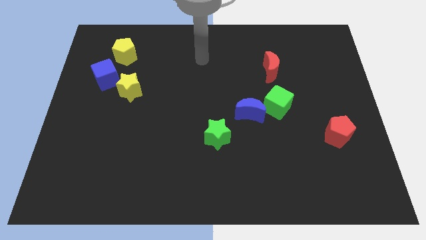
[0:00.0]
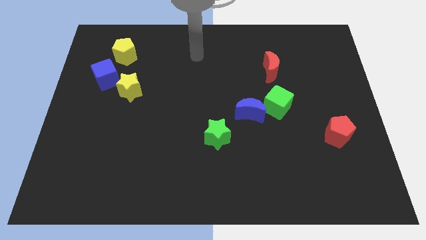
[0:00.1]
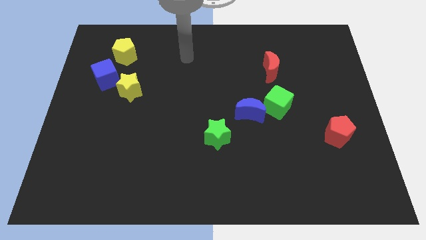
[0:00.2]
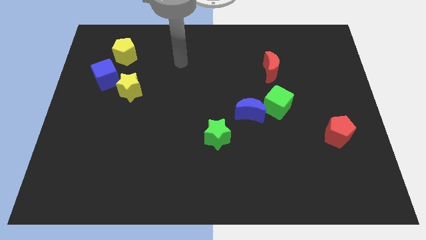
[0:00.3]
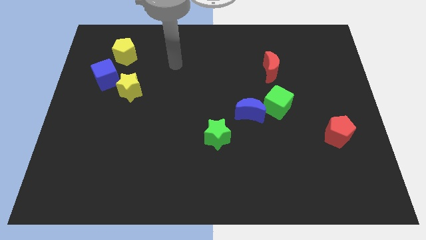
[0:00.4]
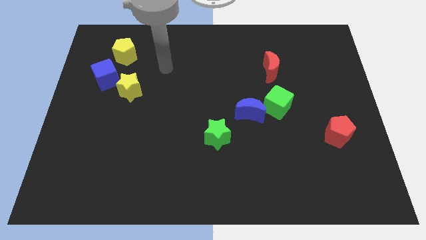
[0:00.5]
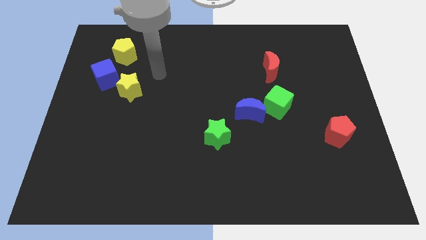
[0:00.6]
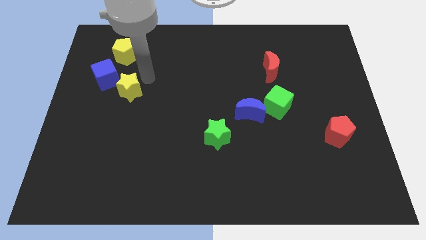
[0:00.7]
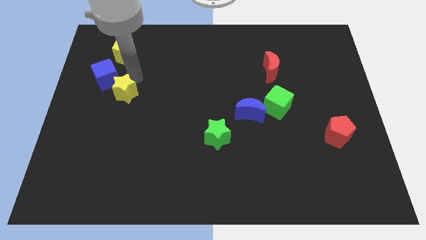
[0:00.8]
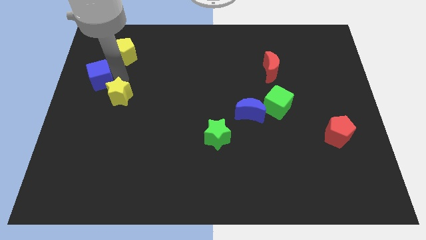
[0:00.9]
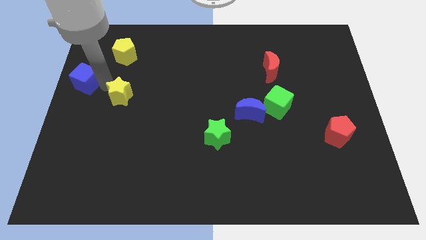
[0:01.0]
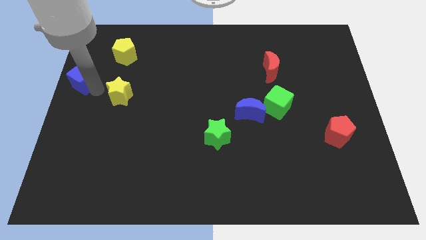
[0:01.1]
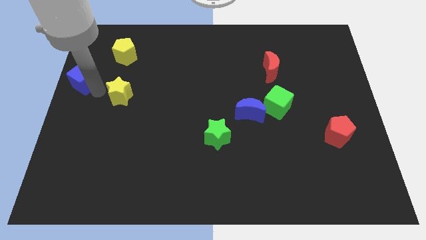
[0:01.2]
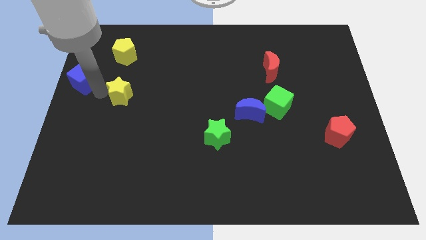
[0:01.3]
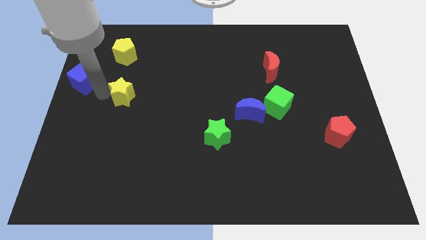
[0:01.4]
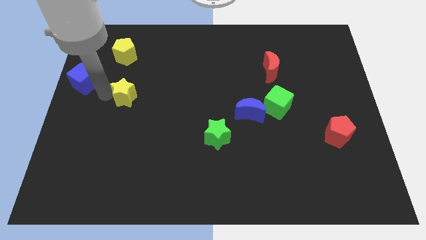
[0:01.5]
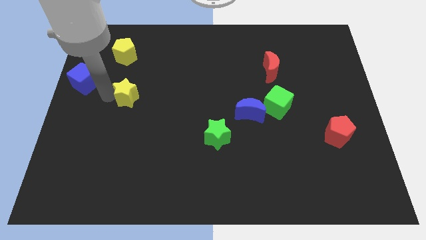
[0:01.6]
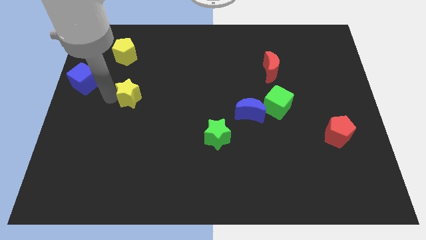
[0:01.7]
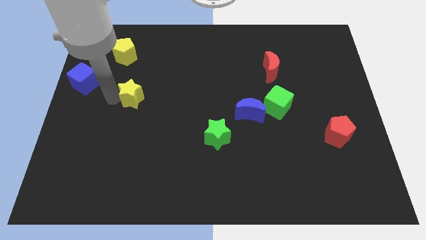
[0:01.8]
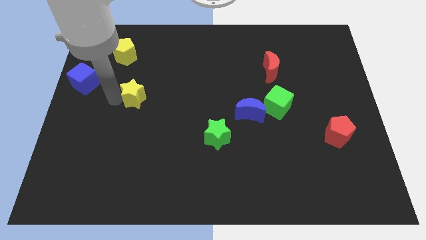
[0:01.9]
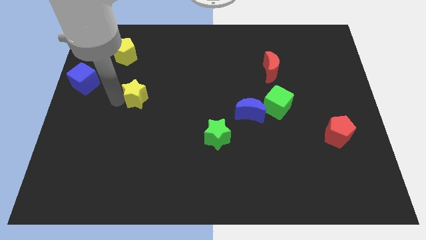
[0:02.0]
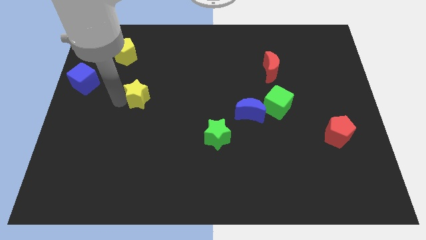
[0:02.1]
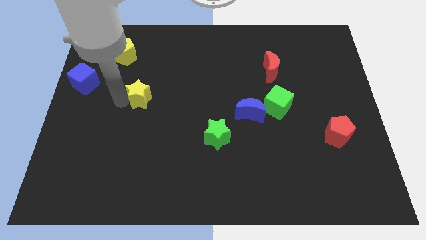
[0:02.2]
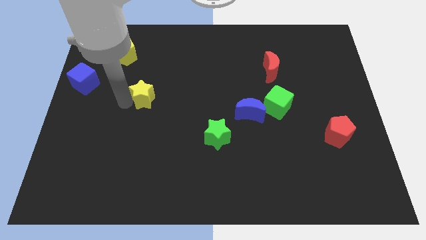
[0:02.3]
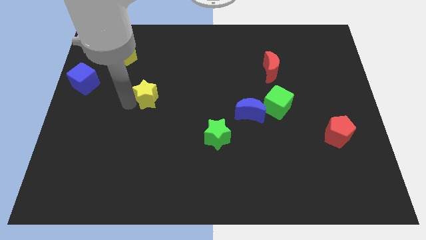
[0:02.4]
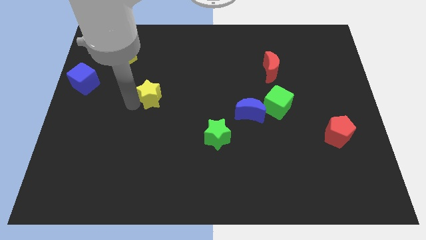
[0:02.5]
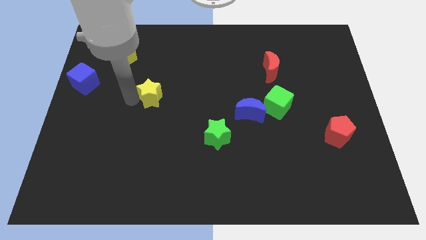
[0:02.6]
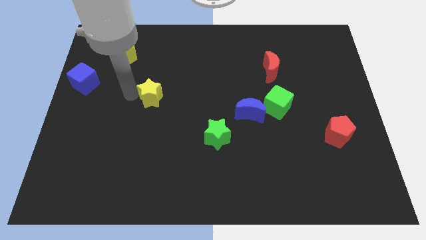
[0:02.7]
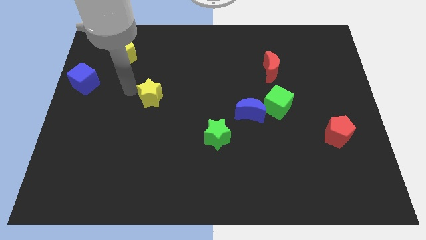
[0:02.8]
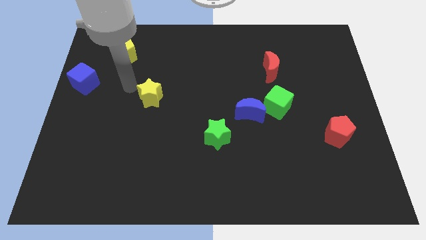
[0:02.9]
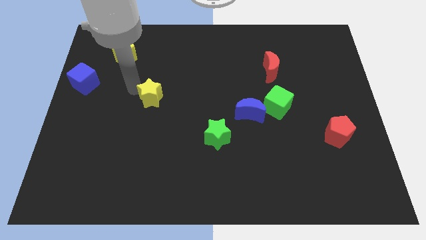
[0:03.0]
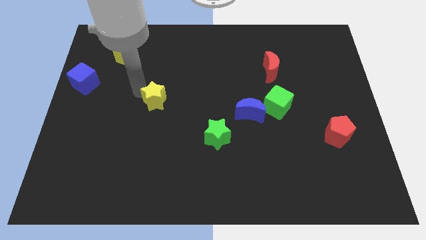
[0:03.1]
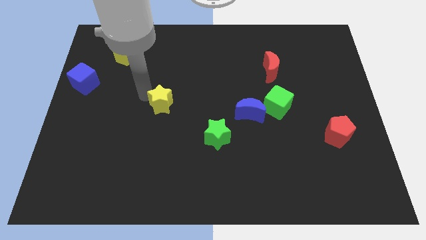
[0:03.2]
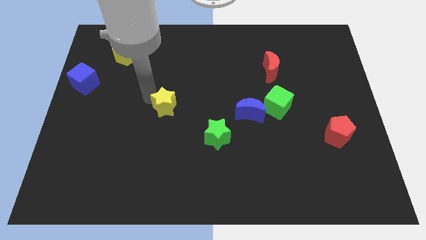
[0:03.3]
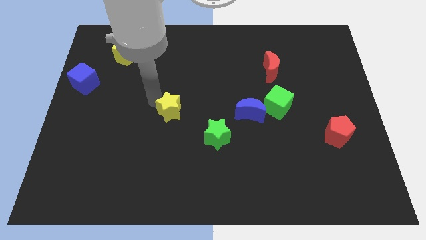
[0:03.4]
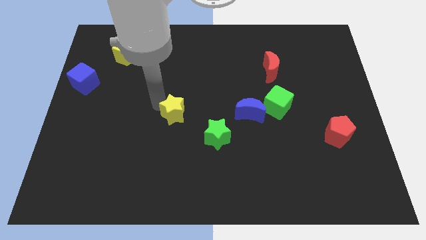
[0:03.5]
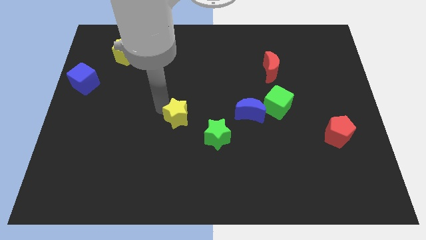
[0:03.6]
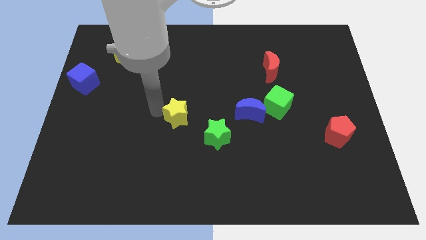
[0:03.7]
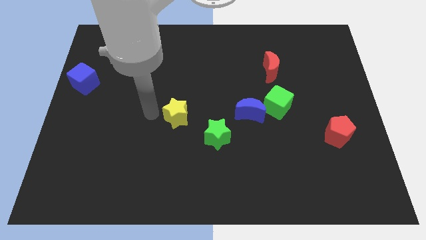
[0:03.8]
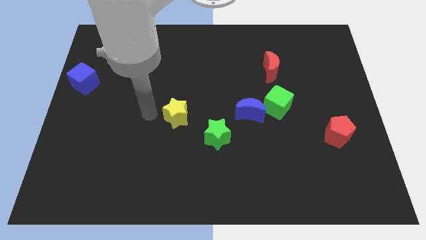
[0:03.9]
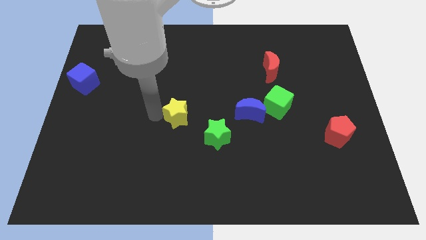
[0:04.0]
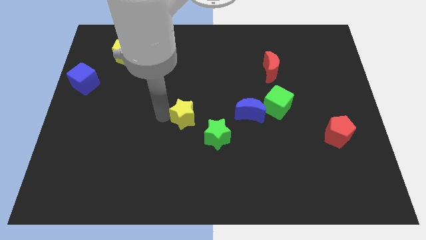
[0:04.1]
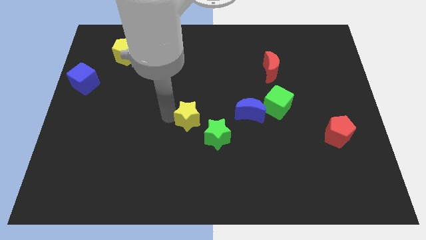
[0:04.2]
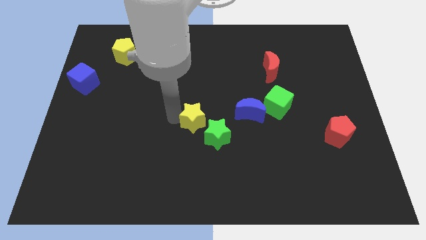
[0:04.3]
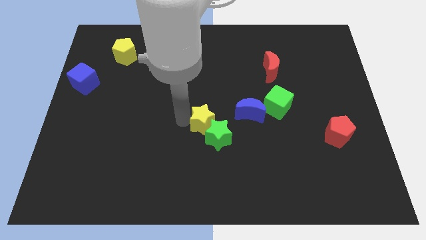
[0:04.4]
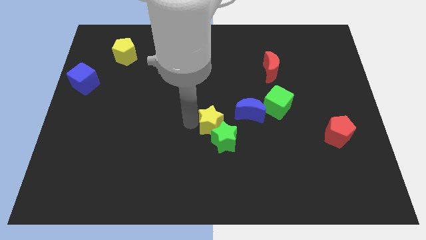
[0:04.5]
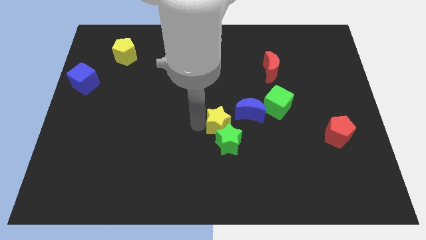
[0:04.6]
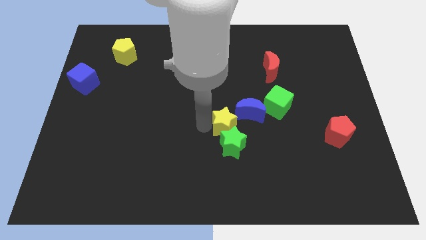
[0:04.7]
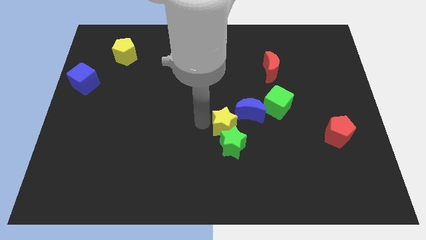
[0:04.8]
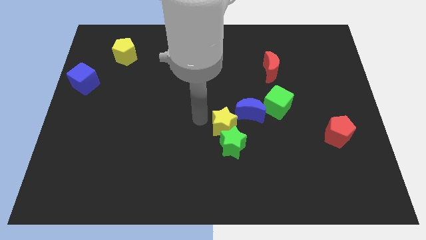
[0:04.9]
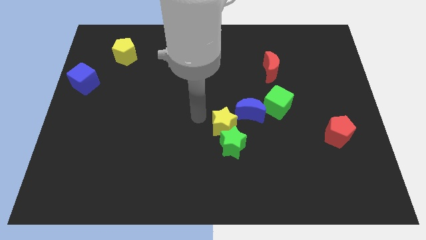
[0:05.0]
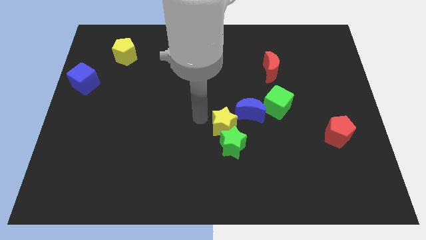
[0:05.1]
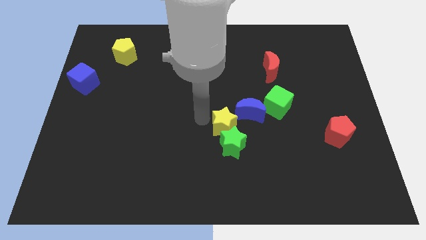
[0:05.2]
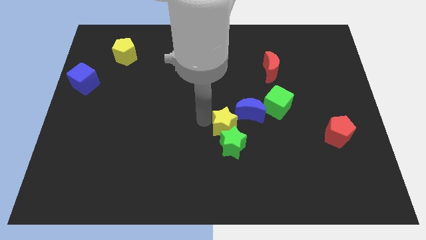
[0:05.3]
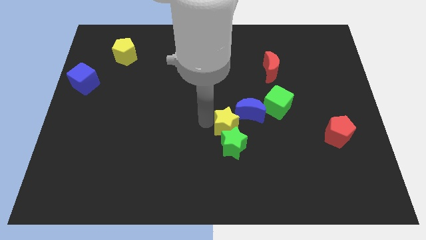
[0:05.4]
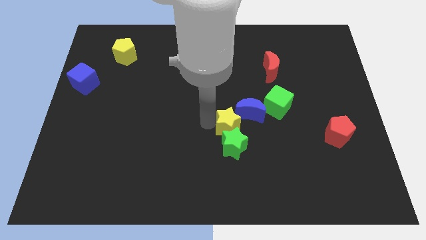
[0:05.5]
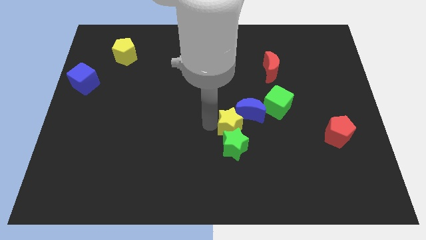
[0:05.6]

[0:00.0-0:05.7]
put the yellow star to the bottom of the blue moon

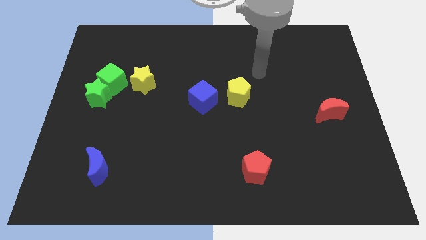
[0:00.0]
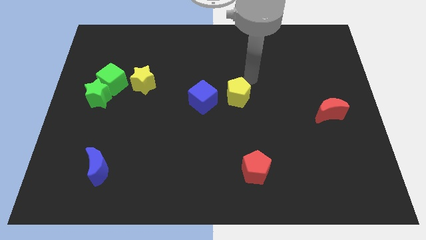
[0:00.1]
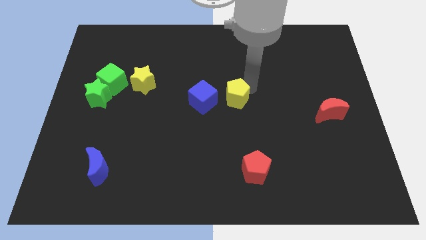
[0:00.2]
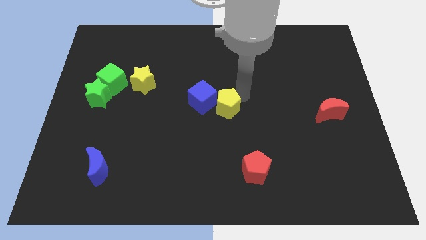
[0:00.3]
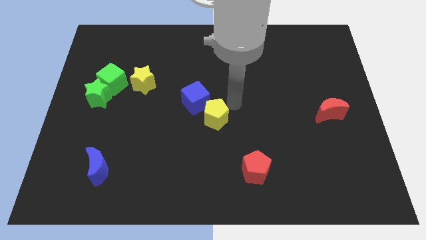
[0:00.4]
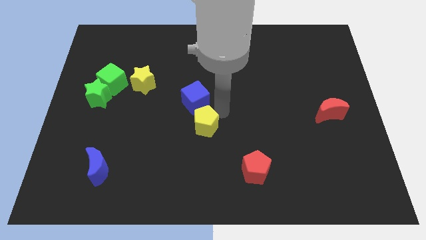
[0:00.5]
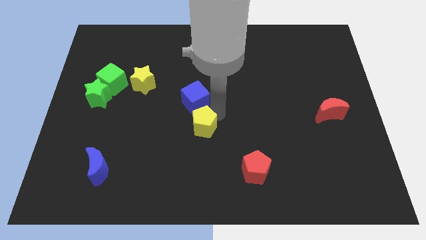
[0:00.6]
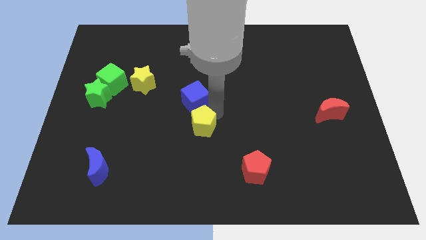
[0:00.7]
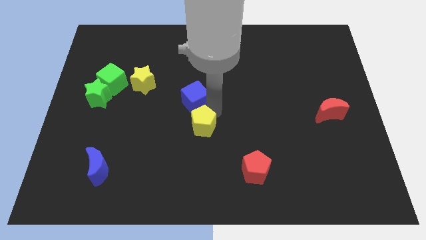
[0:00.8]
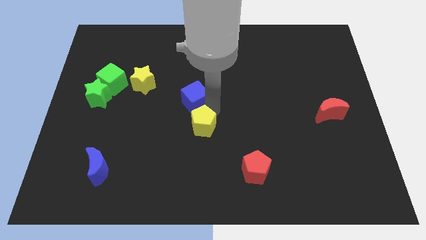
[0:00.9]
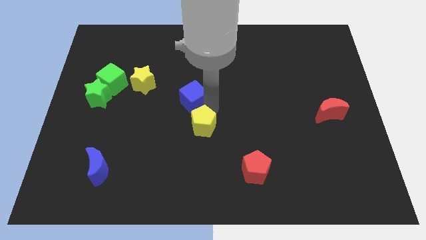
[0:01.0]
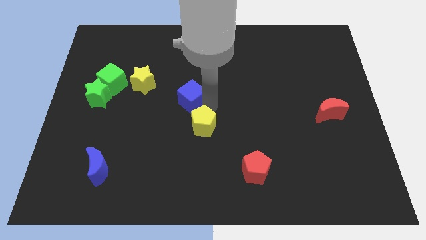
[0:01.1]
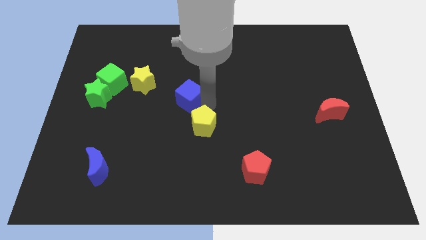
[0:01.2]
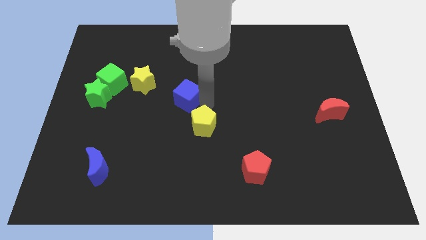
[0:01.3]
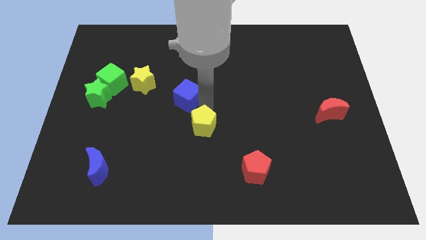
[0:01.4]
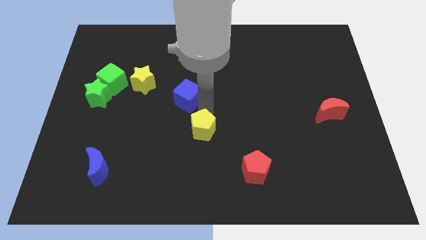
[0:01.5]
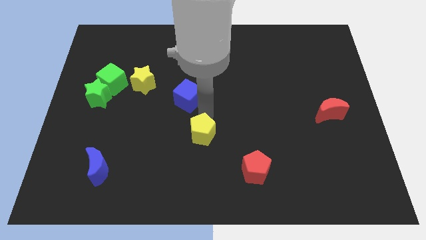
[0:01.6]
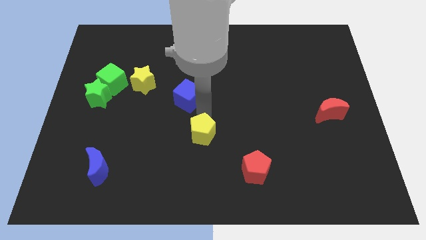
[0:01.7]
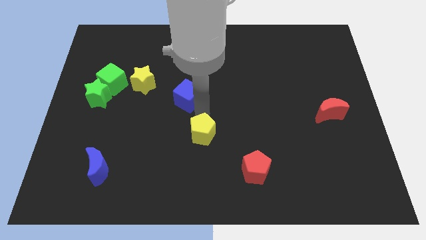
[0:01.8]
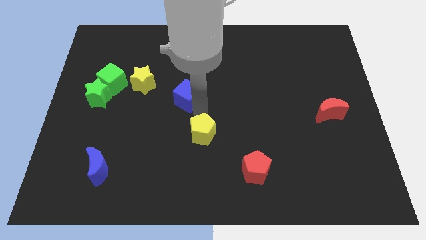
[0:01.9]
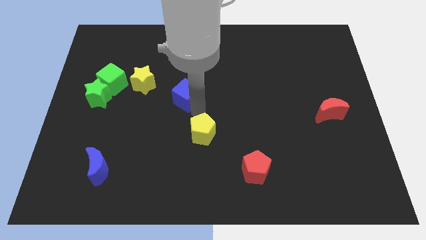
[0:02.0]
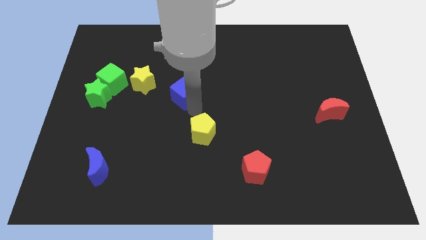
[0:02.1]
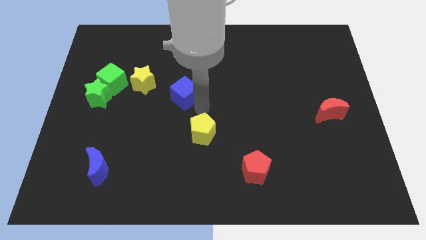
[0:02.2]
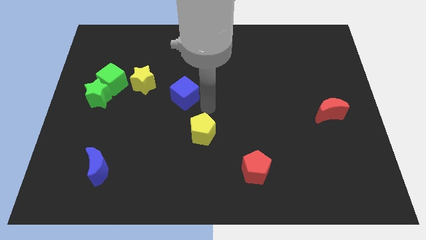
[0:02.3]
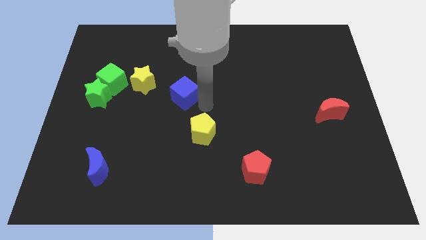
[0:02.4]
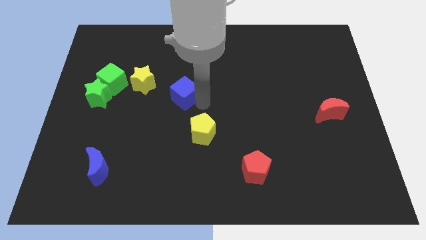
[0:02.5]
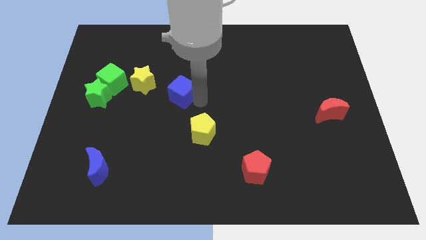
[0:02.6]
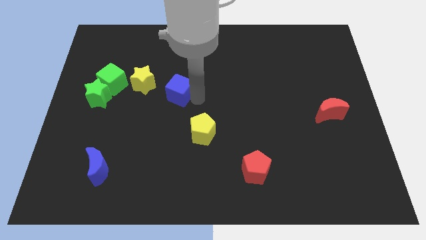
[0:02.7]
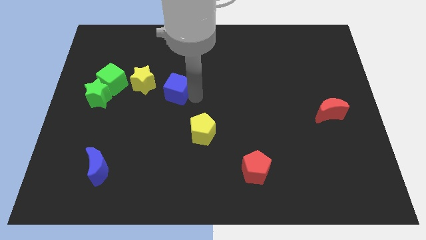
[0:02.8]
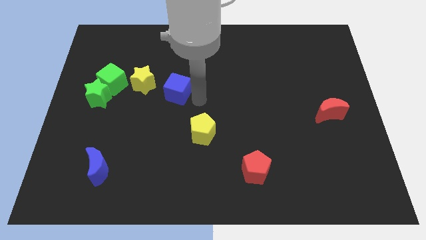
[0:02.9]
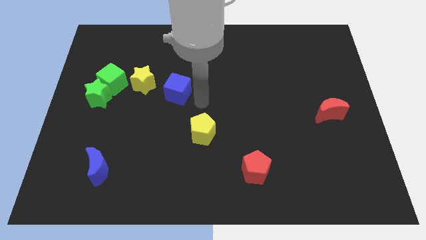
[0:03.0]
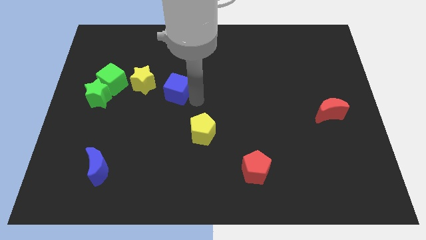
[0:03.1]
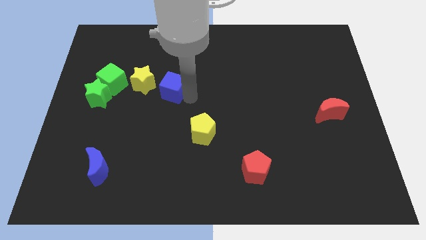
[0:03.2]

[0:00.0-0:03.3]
push the blue cube to the right side of the green cube
